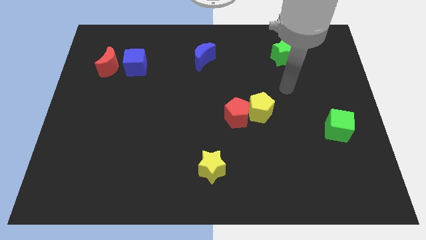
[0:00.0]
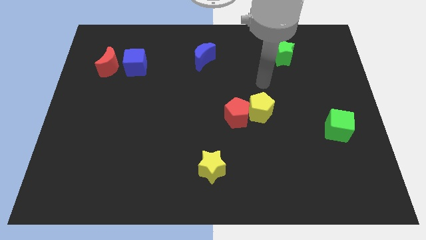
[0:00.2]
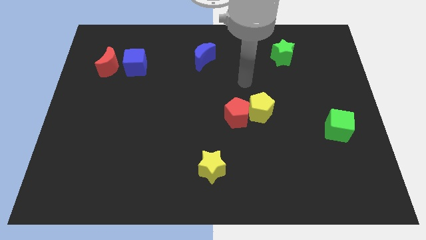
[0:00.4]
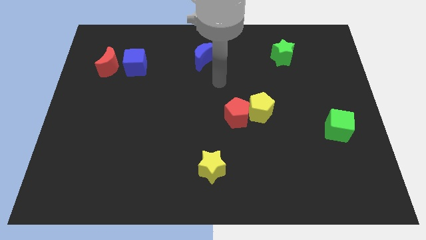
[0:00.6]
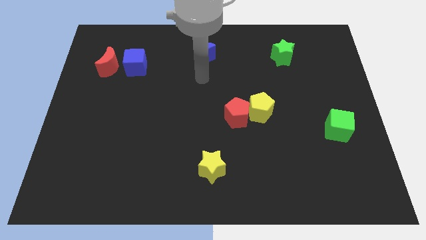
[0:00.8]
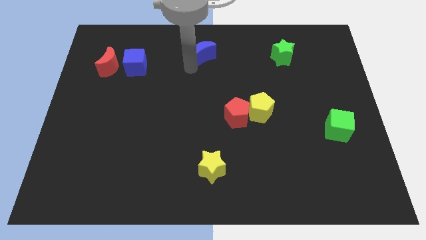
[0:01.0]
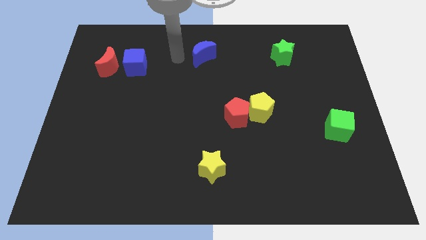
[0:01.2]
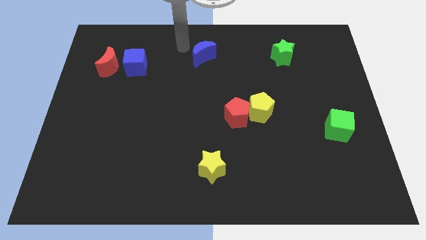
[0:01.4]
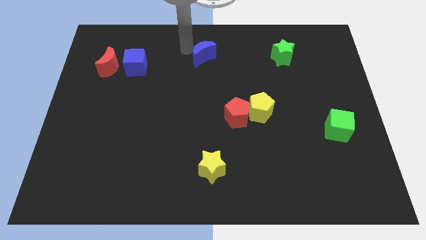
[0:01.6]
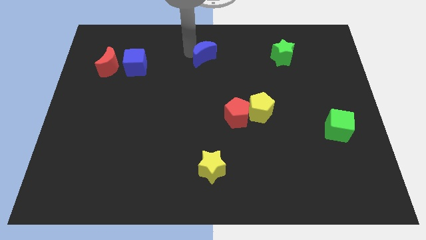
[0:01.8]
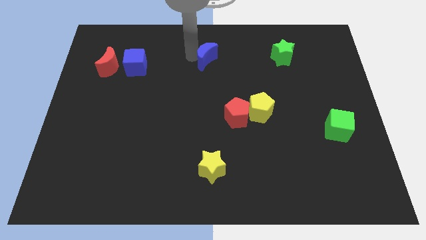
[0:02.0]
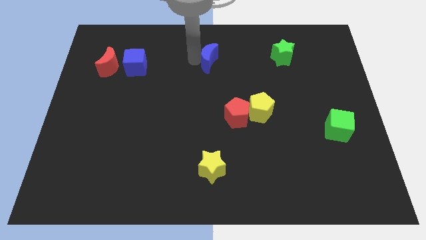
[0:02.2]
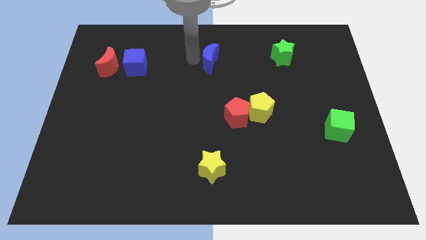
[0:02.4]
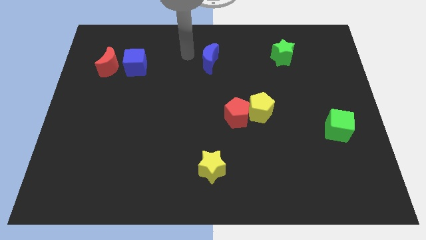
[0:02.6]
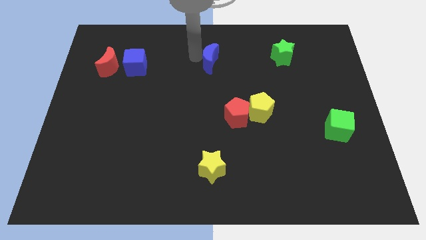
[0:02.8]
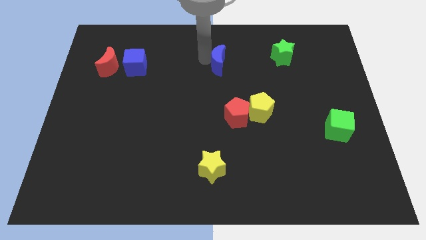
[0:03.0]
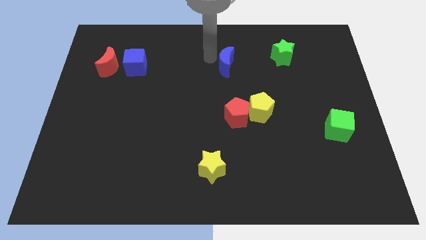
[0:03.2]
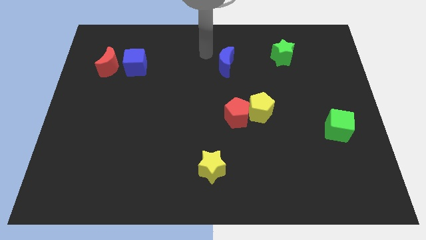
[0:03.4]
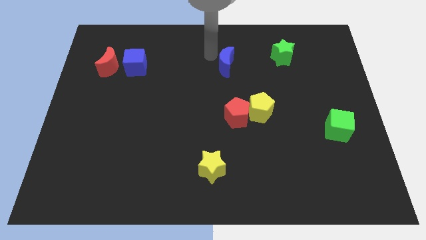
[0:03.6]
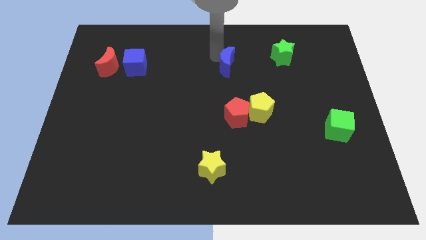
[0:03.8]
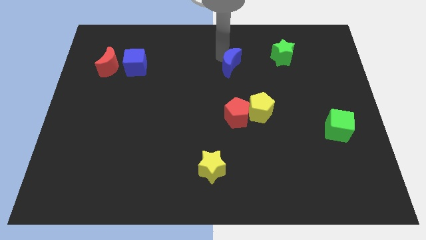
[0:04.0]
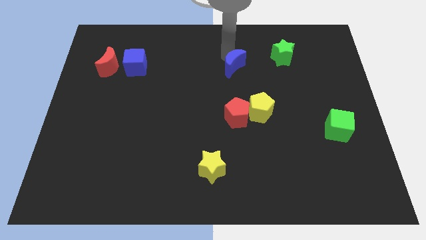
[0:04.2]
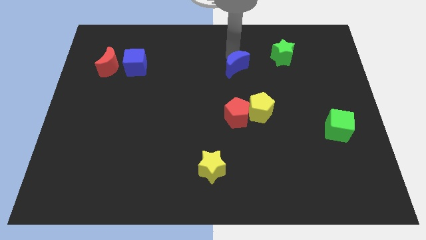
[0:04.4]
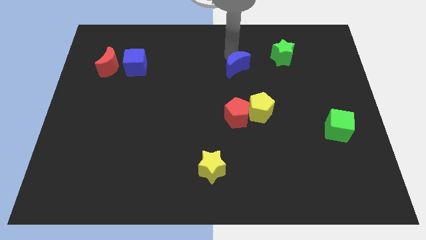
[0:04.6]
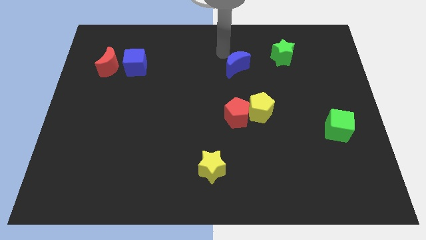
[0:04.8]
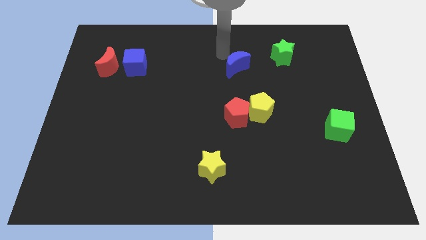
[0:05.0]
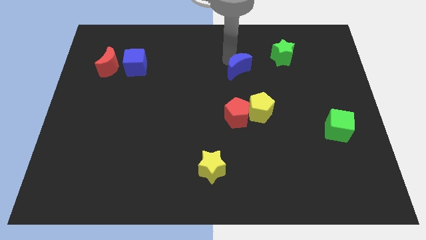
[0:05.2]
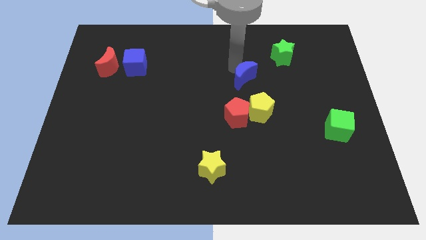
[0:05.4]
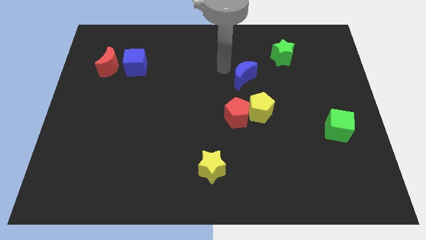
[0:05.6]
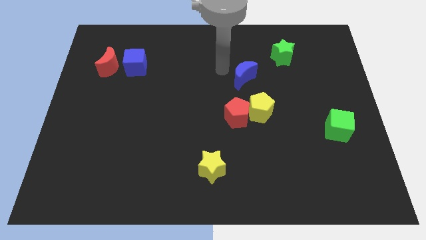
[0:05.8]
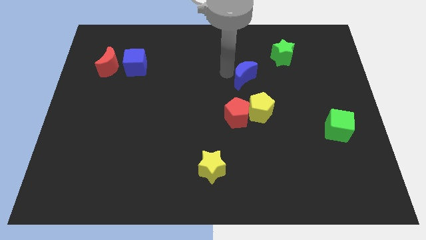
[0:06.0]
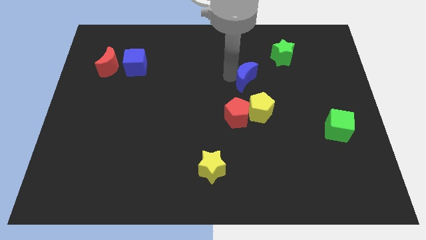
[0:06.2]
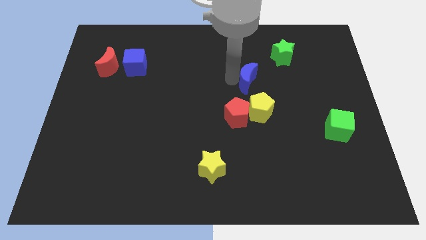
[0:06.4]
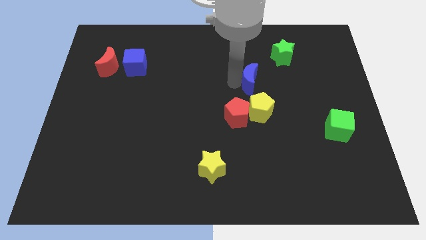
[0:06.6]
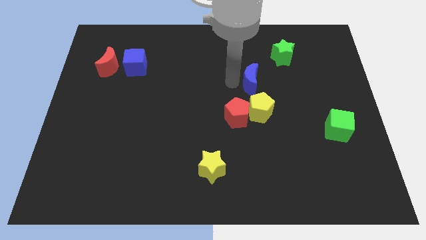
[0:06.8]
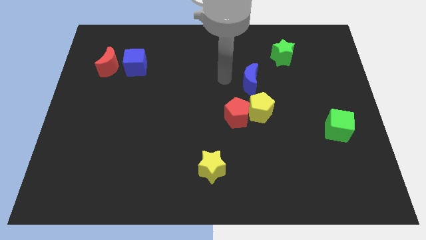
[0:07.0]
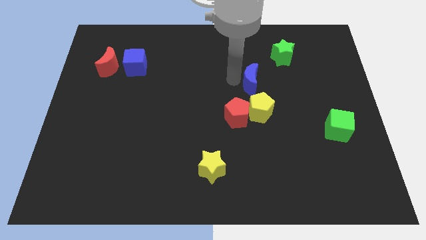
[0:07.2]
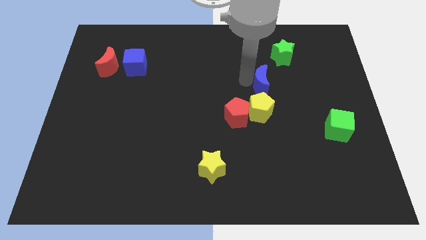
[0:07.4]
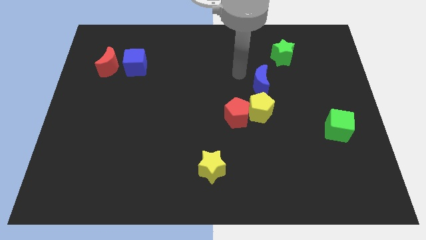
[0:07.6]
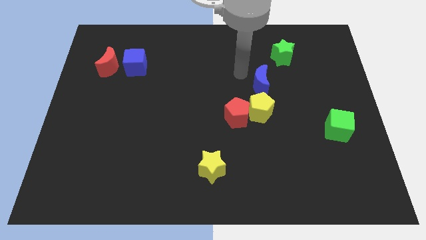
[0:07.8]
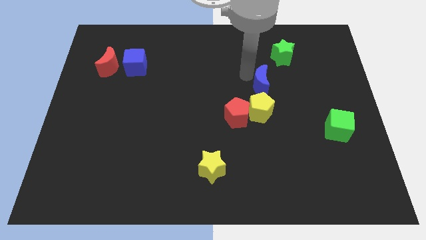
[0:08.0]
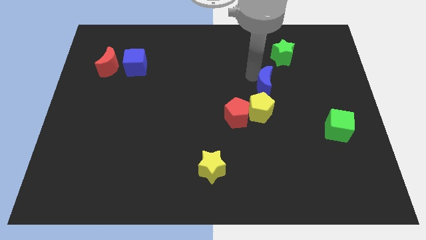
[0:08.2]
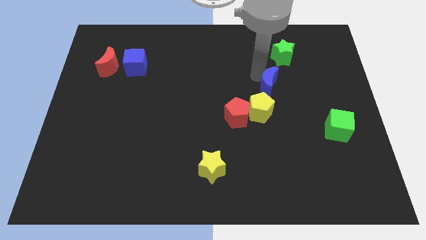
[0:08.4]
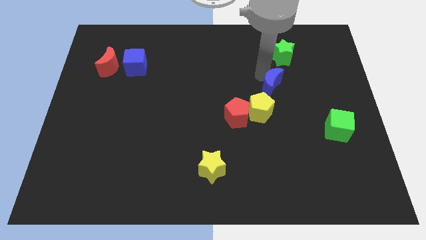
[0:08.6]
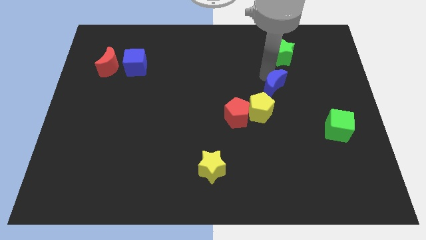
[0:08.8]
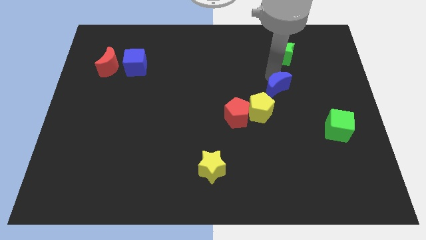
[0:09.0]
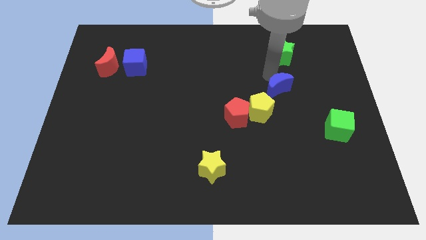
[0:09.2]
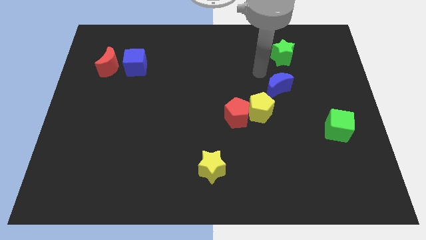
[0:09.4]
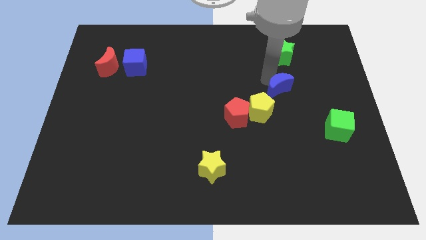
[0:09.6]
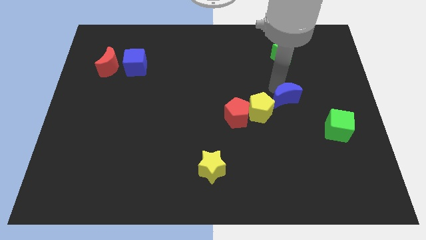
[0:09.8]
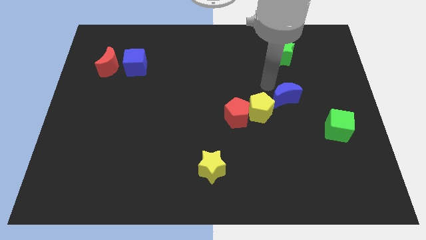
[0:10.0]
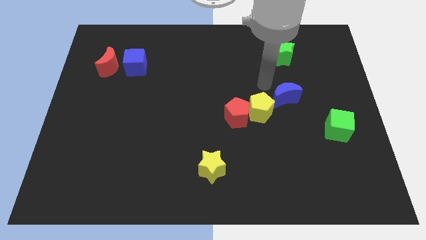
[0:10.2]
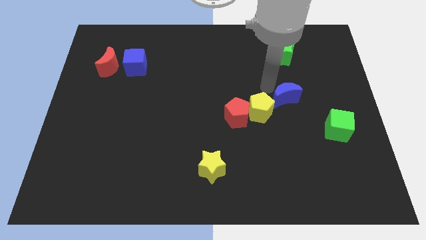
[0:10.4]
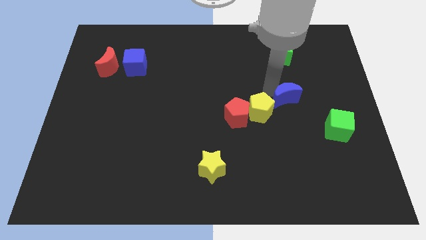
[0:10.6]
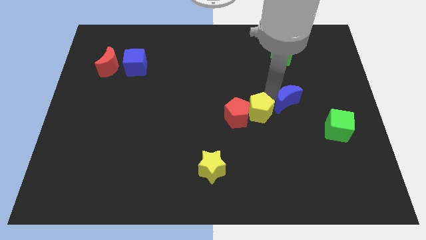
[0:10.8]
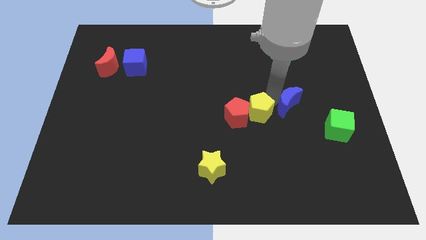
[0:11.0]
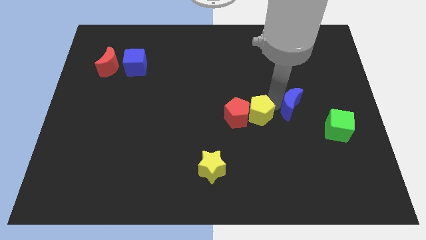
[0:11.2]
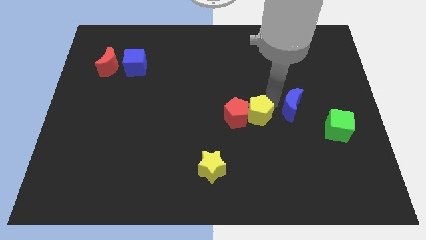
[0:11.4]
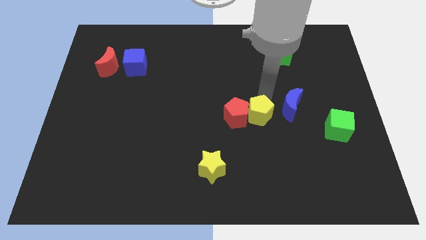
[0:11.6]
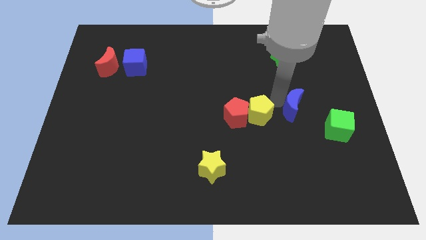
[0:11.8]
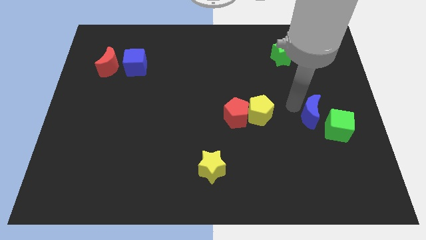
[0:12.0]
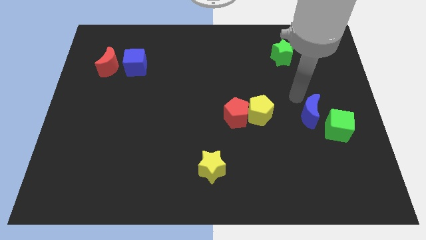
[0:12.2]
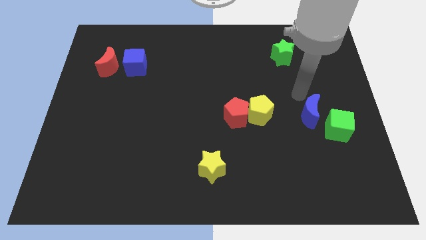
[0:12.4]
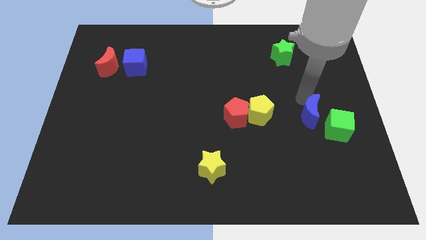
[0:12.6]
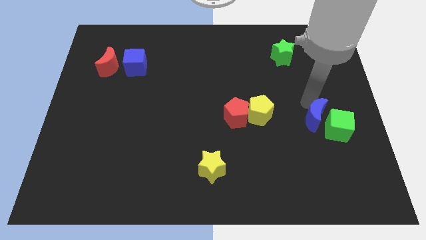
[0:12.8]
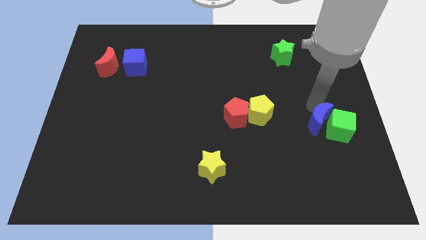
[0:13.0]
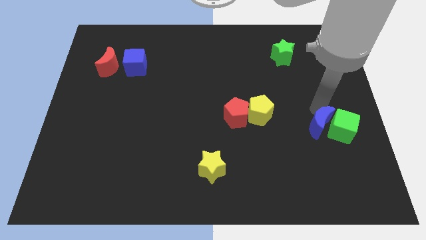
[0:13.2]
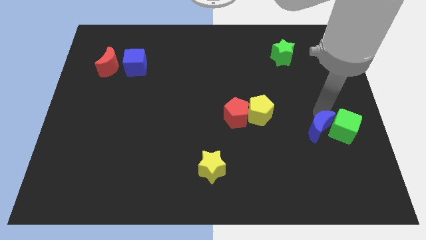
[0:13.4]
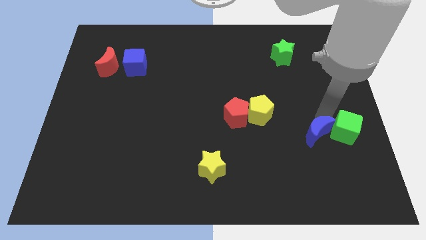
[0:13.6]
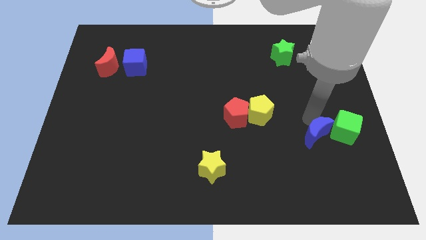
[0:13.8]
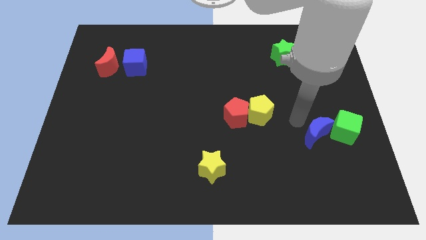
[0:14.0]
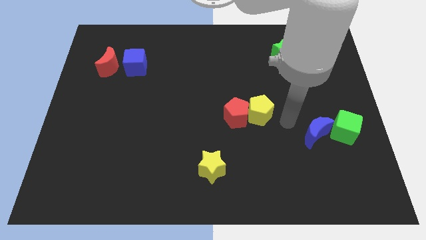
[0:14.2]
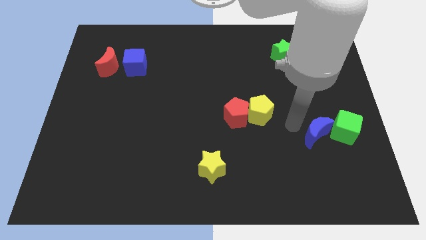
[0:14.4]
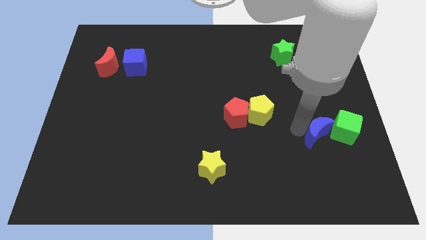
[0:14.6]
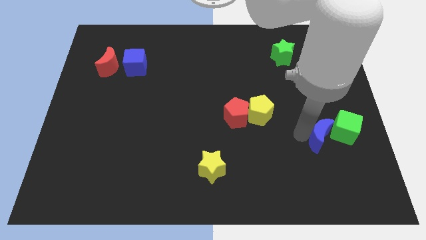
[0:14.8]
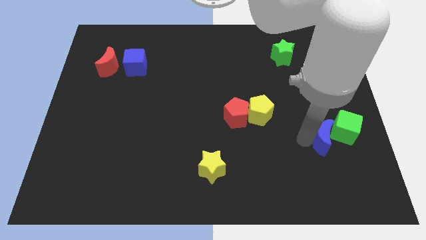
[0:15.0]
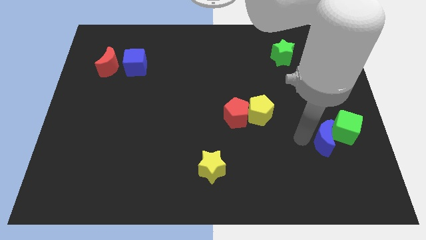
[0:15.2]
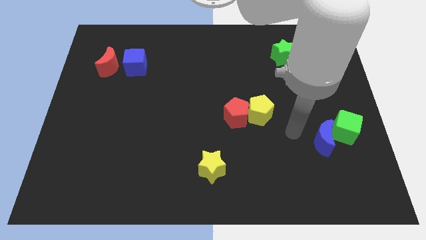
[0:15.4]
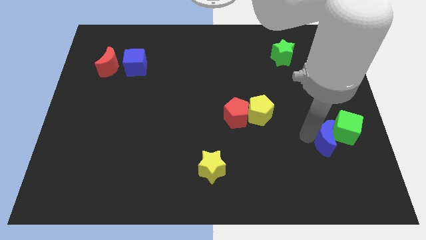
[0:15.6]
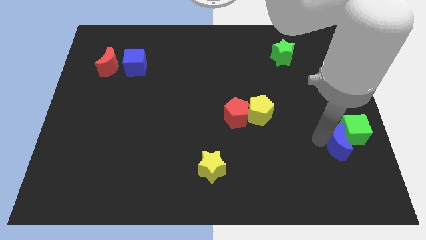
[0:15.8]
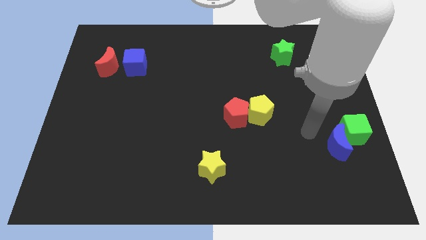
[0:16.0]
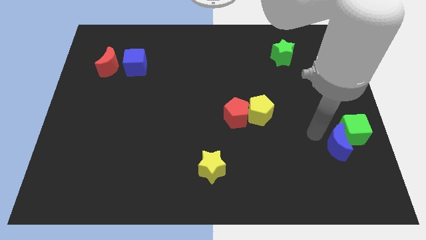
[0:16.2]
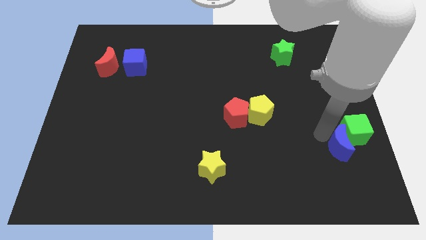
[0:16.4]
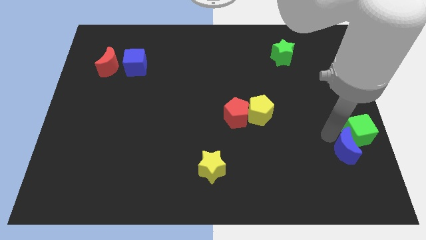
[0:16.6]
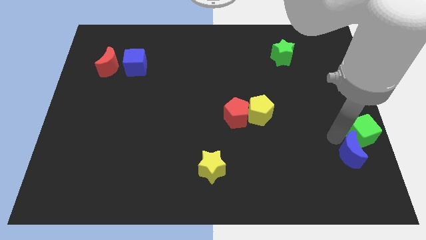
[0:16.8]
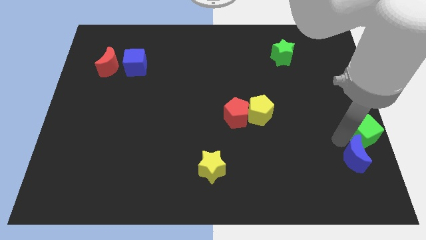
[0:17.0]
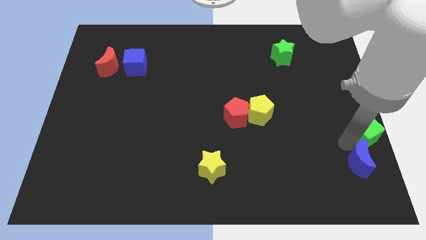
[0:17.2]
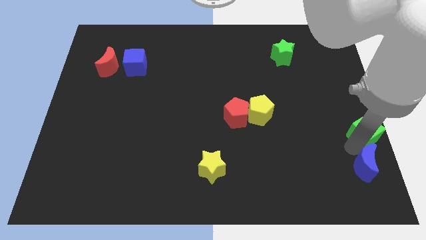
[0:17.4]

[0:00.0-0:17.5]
put the blue moon to the bottom right of the board
